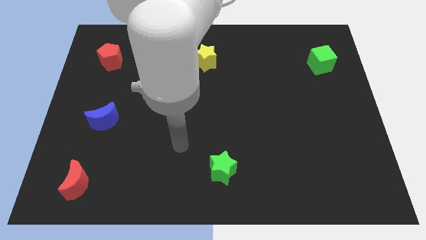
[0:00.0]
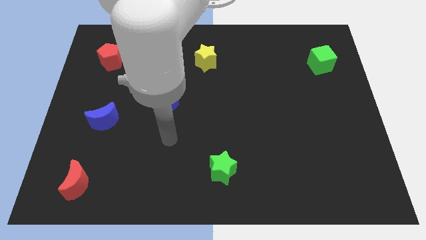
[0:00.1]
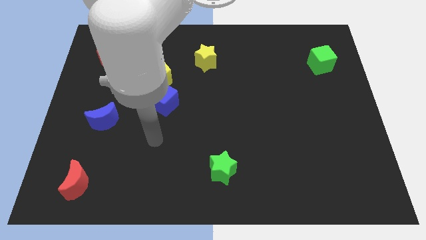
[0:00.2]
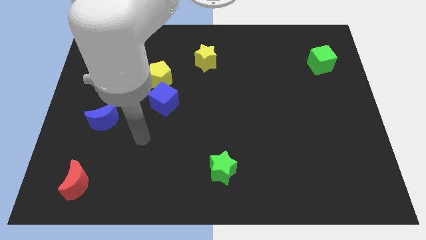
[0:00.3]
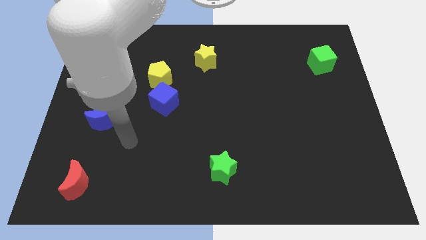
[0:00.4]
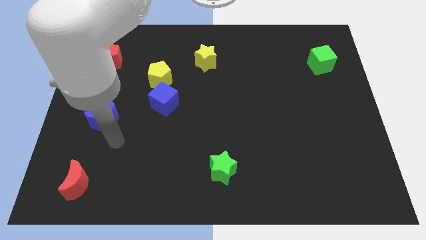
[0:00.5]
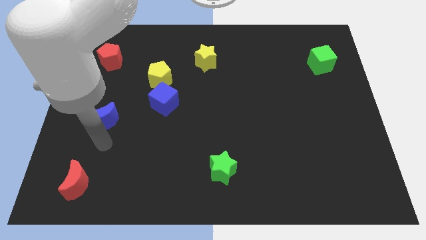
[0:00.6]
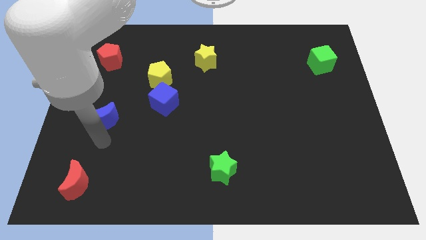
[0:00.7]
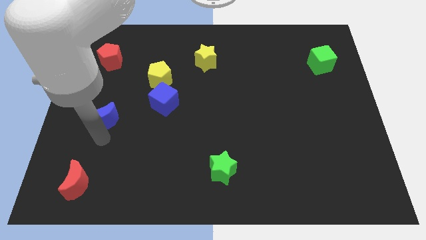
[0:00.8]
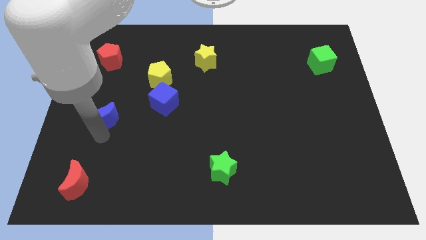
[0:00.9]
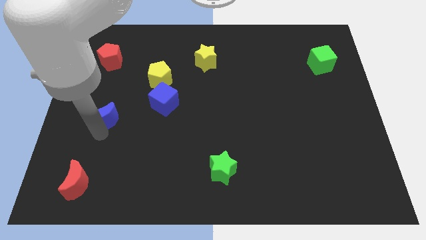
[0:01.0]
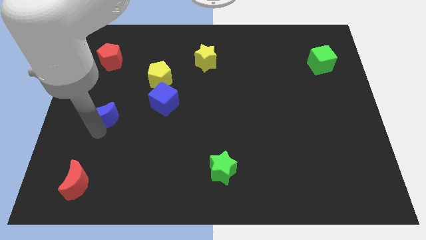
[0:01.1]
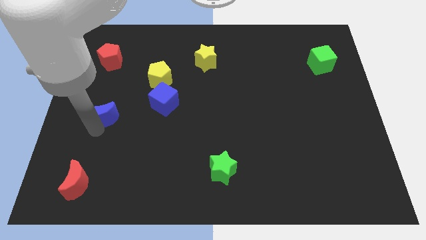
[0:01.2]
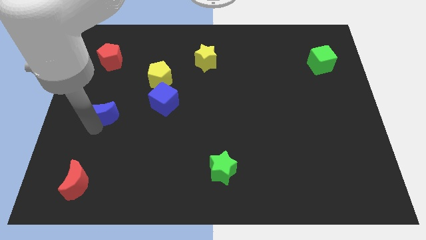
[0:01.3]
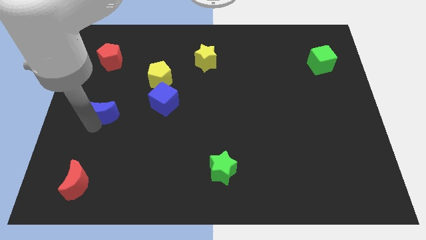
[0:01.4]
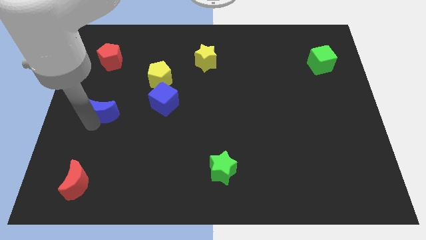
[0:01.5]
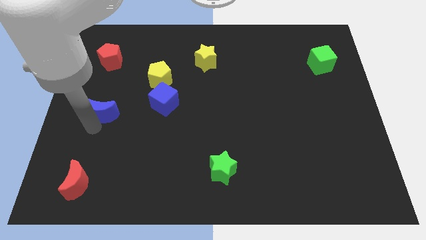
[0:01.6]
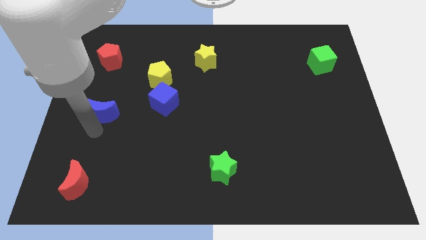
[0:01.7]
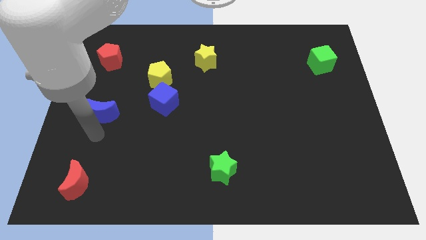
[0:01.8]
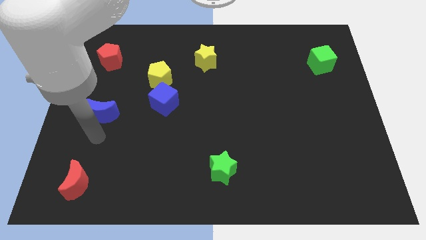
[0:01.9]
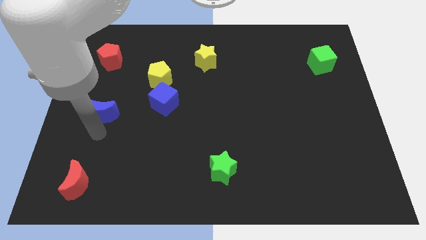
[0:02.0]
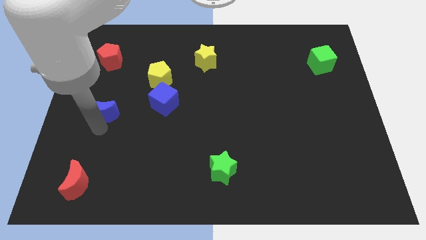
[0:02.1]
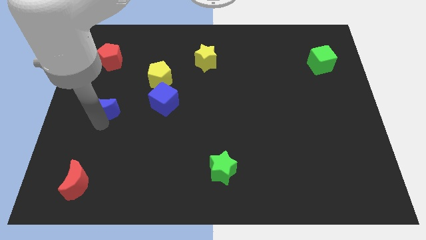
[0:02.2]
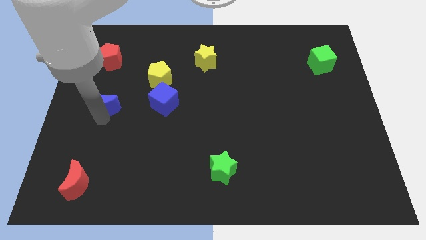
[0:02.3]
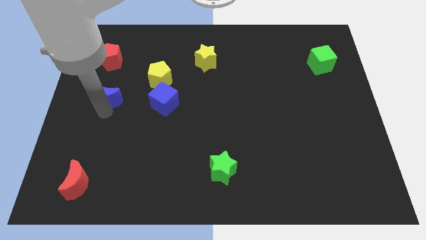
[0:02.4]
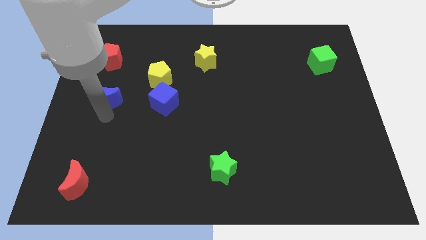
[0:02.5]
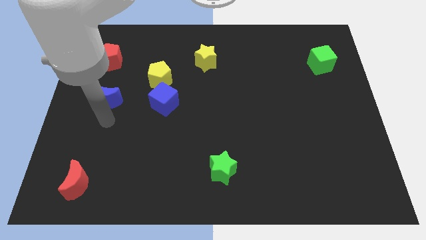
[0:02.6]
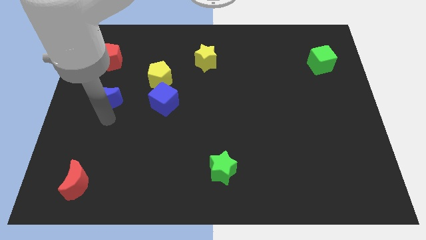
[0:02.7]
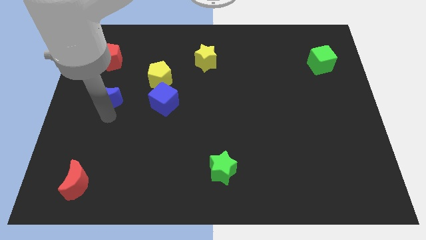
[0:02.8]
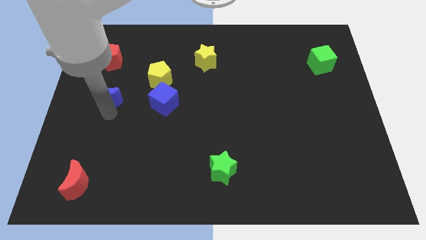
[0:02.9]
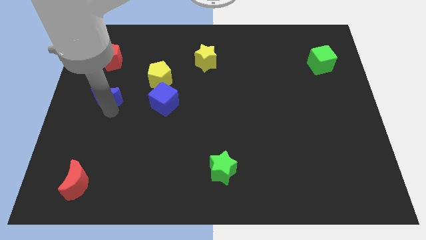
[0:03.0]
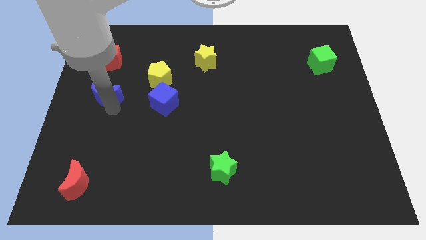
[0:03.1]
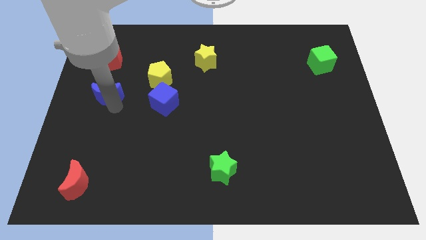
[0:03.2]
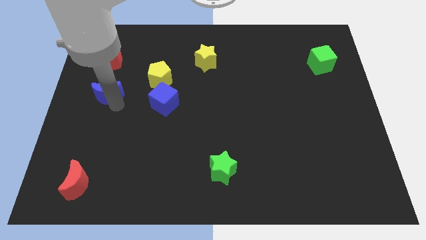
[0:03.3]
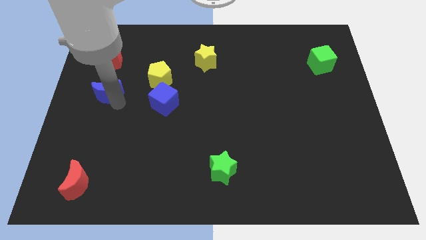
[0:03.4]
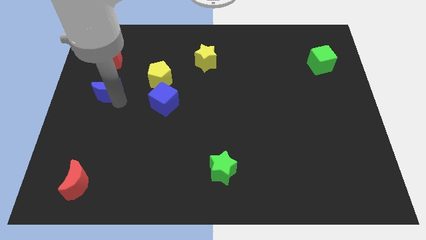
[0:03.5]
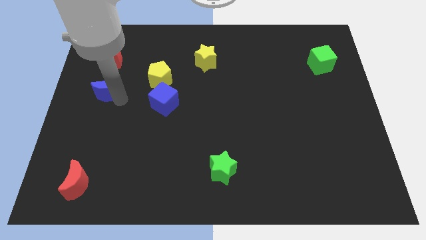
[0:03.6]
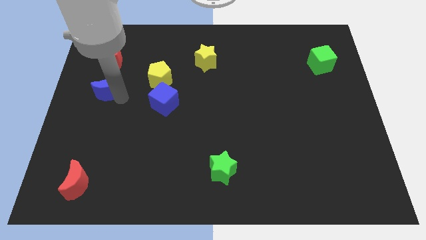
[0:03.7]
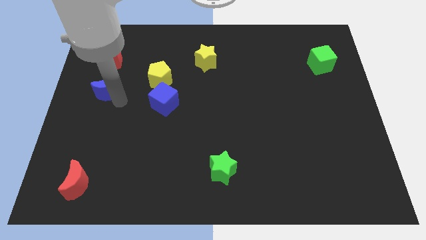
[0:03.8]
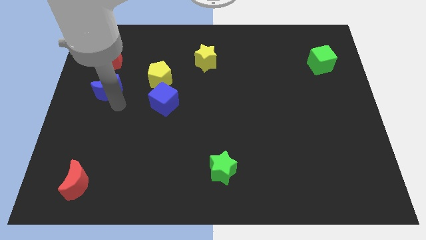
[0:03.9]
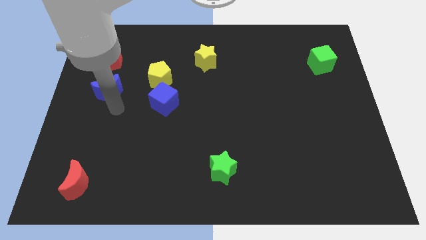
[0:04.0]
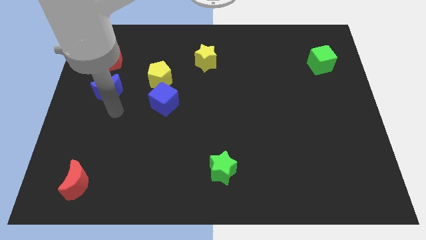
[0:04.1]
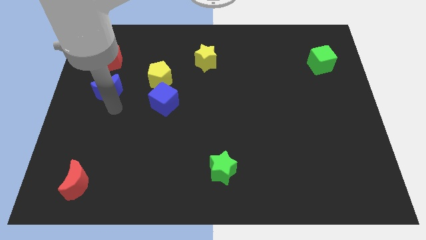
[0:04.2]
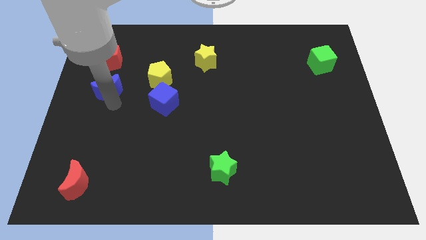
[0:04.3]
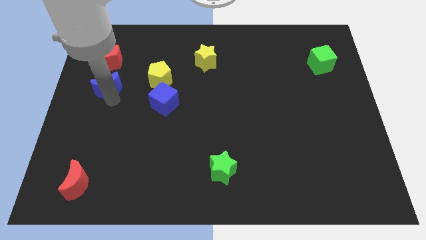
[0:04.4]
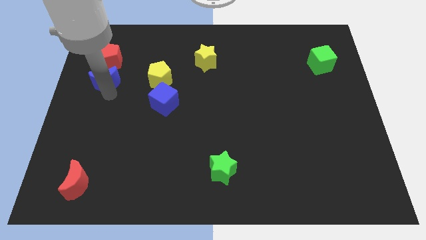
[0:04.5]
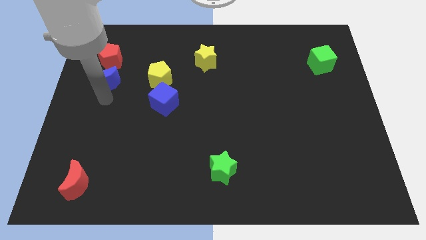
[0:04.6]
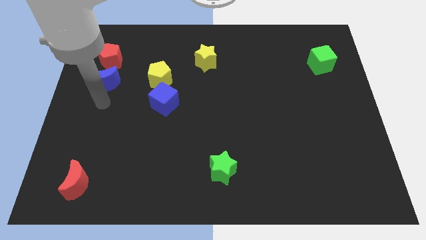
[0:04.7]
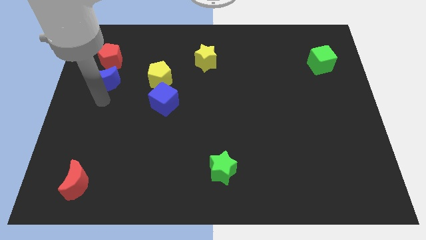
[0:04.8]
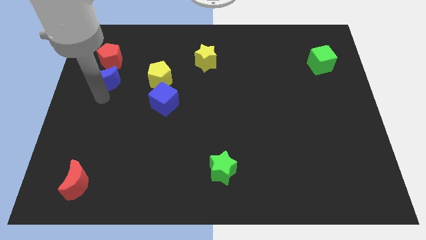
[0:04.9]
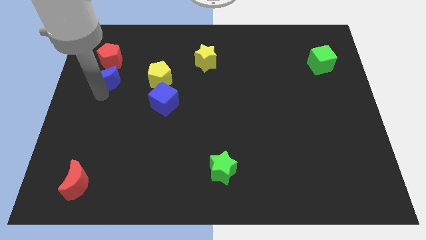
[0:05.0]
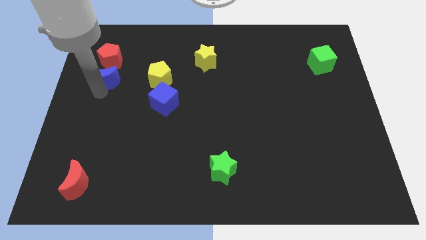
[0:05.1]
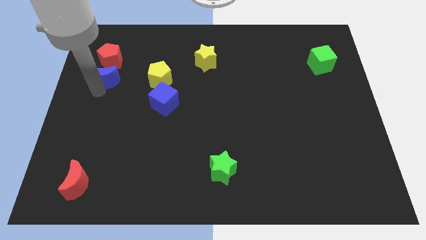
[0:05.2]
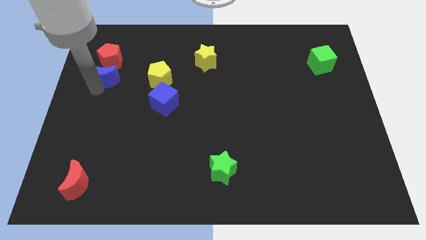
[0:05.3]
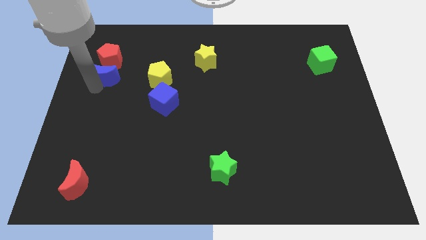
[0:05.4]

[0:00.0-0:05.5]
slide the blue moon towards the red pentagon

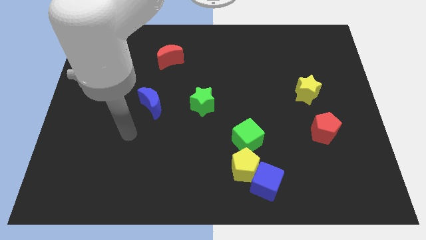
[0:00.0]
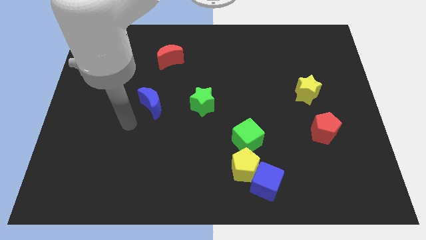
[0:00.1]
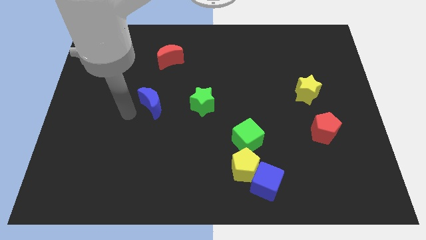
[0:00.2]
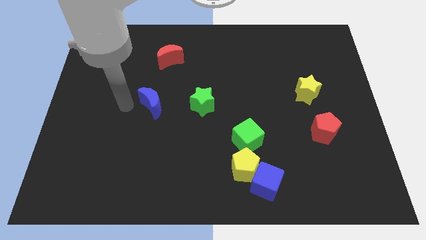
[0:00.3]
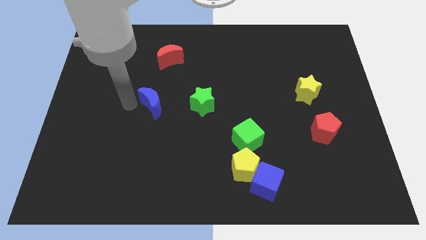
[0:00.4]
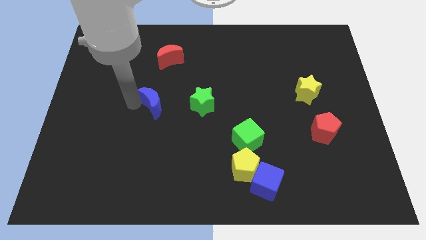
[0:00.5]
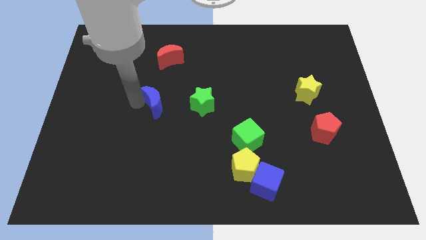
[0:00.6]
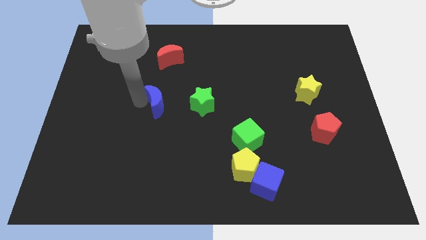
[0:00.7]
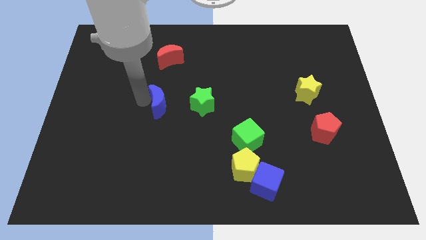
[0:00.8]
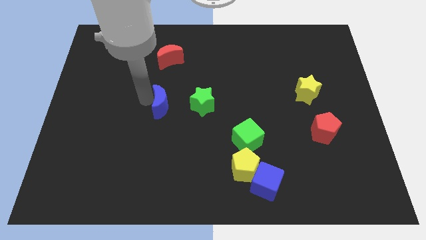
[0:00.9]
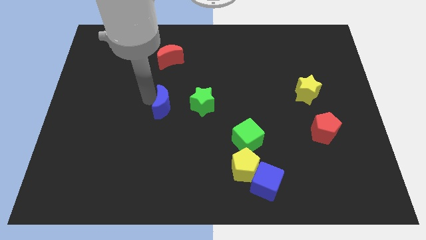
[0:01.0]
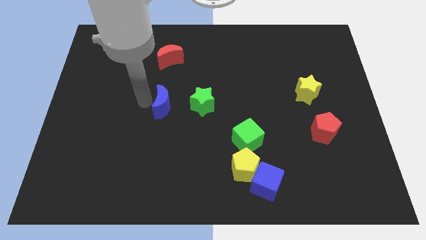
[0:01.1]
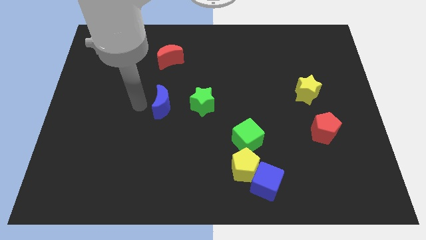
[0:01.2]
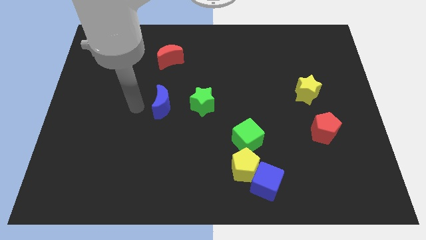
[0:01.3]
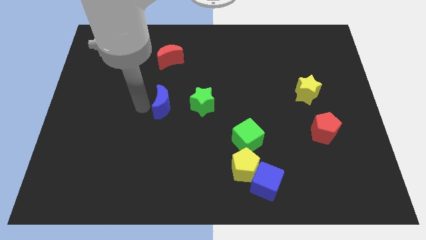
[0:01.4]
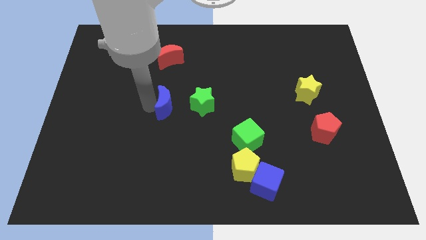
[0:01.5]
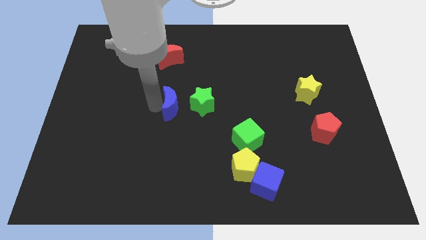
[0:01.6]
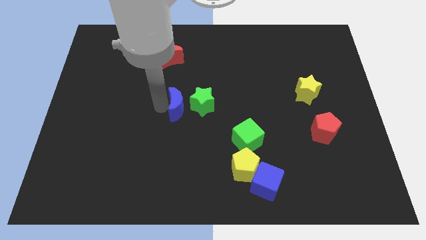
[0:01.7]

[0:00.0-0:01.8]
move the blue moon close to the green star

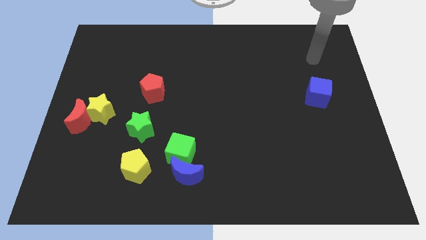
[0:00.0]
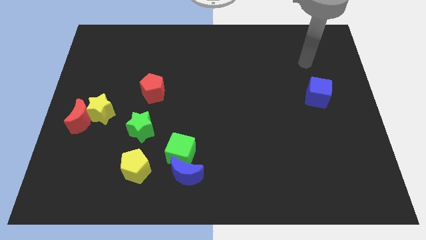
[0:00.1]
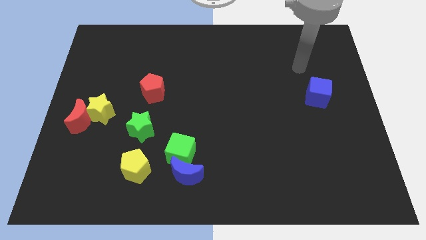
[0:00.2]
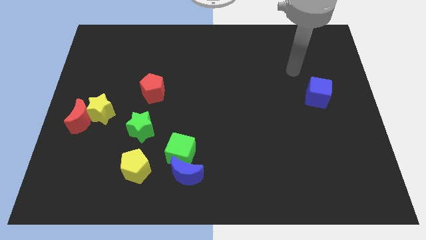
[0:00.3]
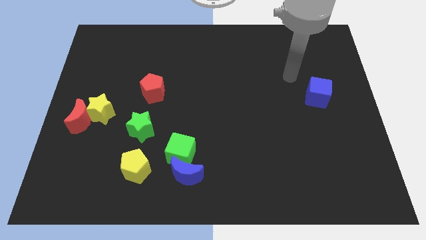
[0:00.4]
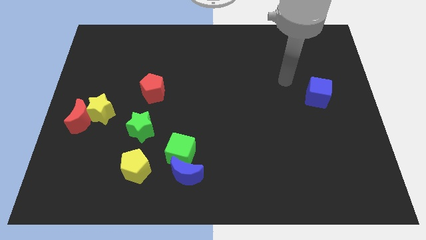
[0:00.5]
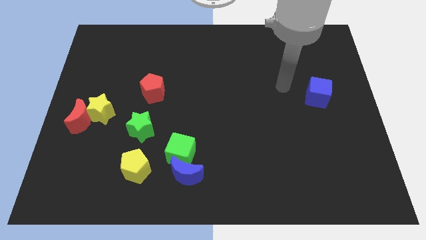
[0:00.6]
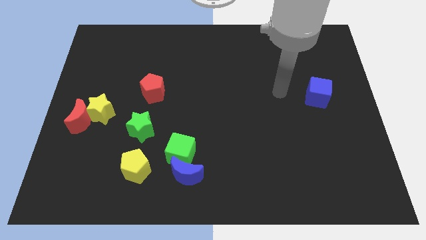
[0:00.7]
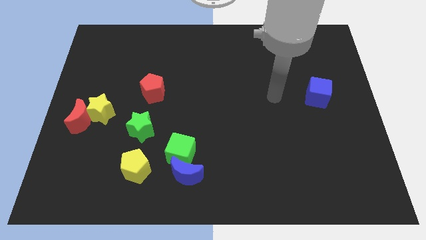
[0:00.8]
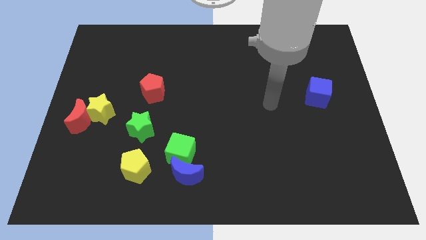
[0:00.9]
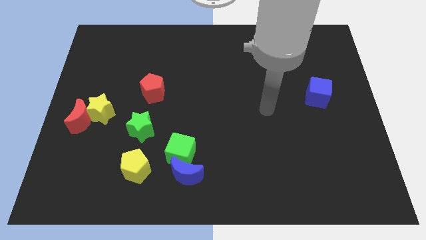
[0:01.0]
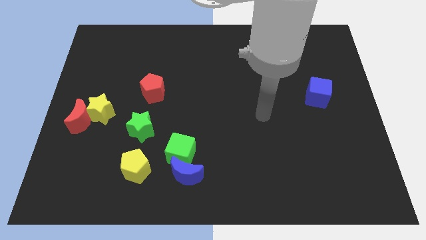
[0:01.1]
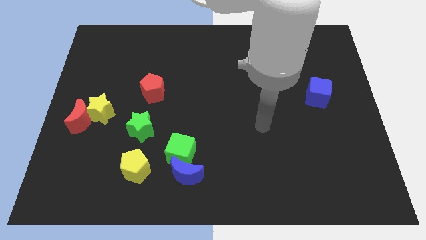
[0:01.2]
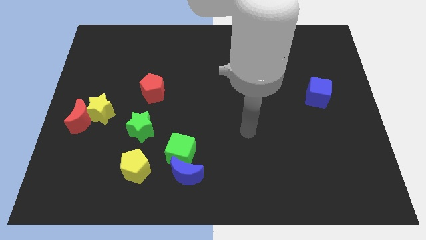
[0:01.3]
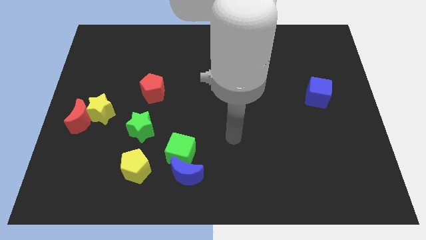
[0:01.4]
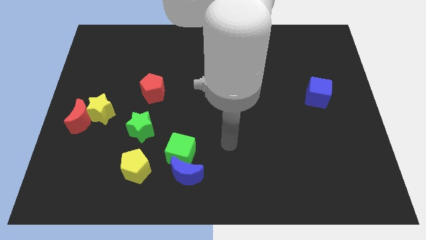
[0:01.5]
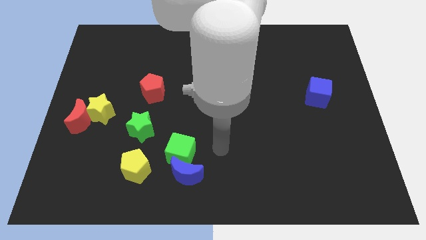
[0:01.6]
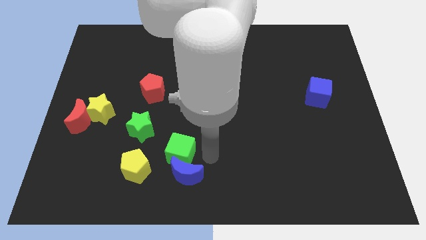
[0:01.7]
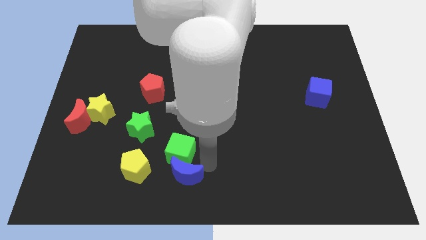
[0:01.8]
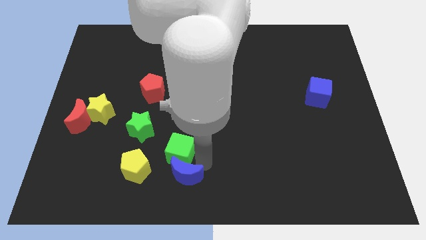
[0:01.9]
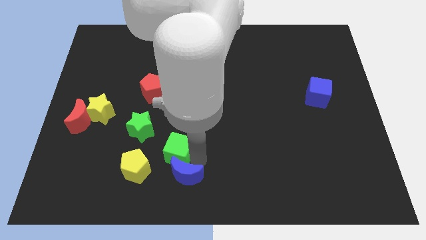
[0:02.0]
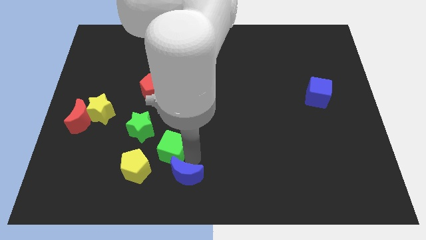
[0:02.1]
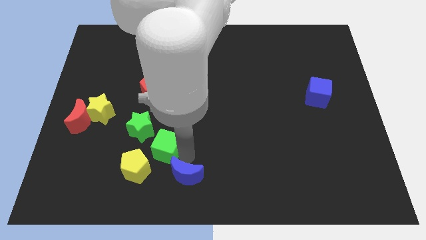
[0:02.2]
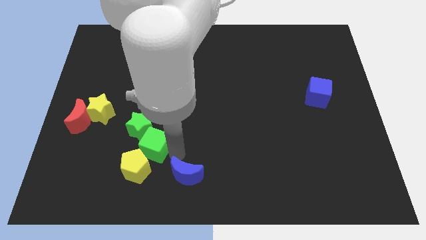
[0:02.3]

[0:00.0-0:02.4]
put the green cube next to the green star
